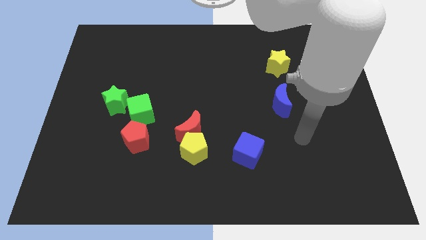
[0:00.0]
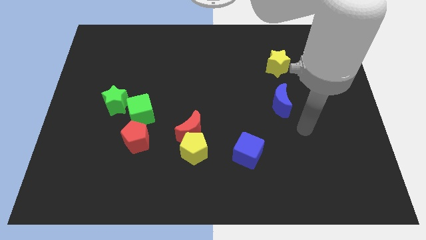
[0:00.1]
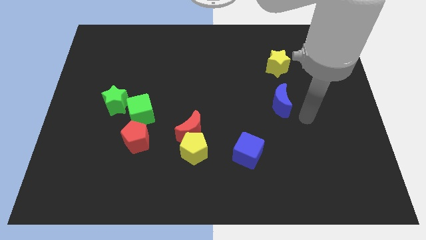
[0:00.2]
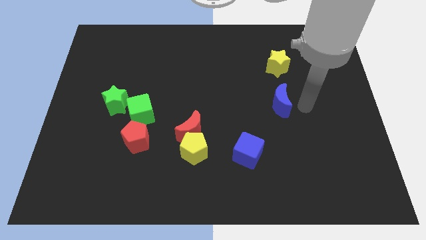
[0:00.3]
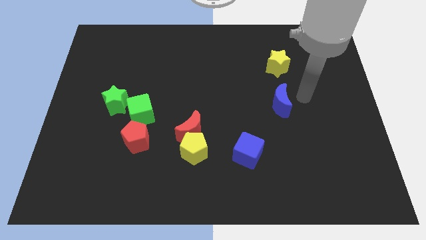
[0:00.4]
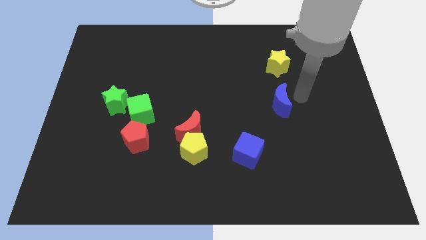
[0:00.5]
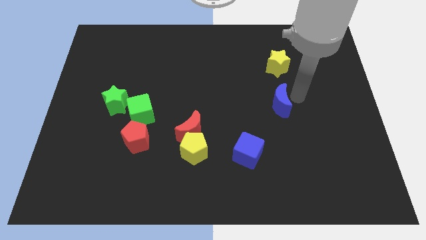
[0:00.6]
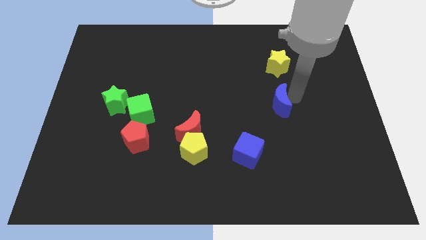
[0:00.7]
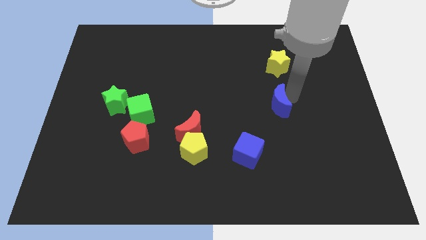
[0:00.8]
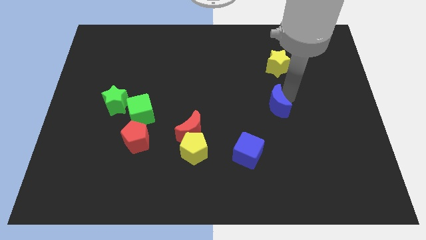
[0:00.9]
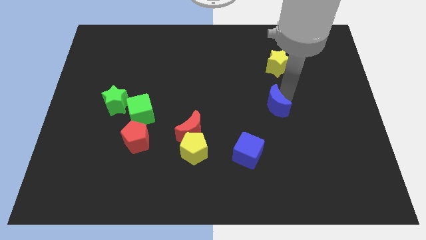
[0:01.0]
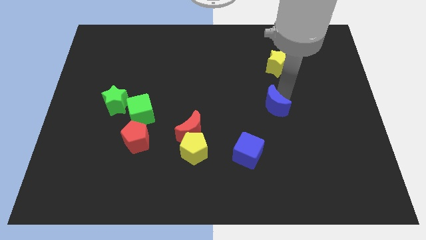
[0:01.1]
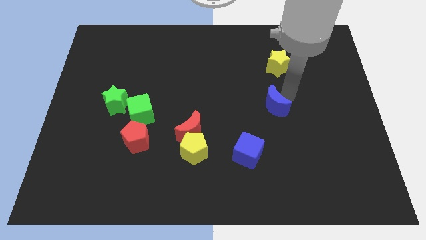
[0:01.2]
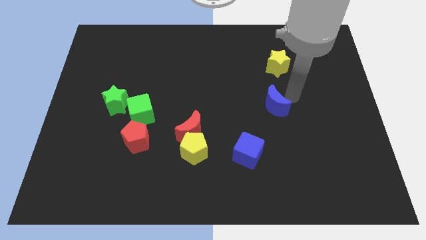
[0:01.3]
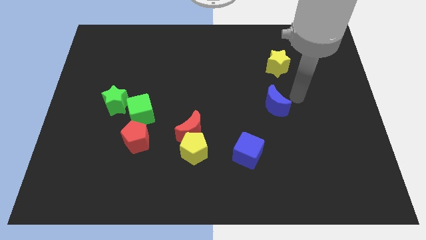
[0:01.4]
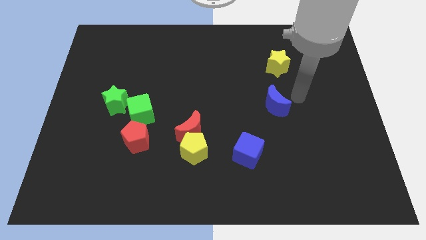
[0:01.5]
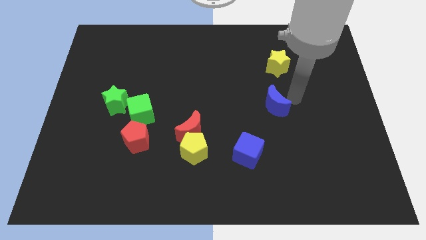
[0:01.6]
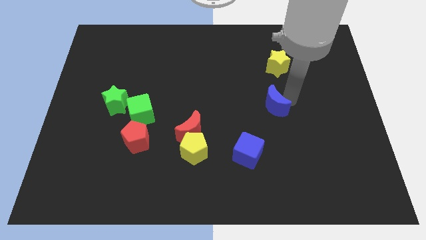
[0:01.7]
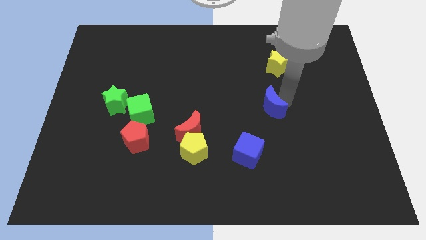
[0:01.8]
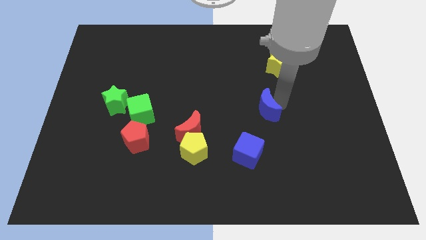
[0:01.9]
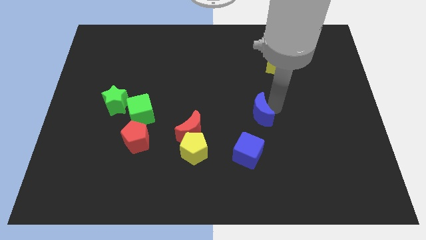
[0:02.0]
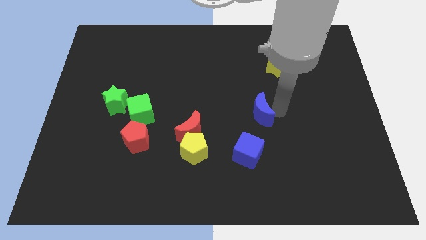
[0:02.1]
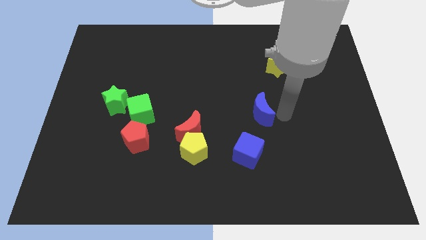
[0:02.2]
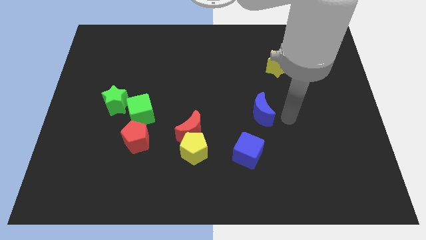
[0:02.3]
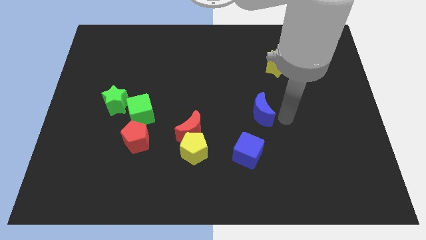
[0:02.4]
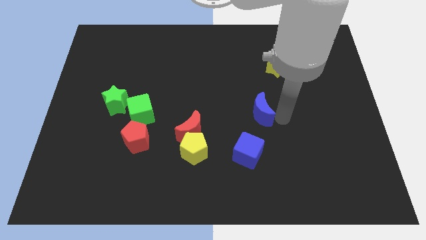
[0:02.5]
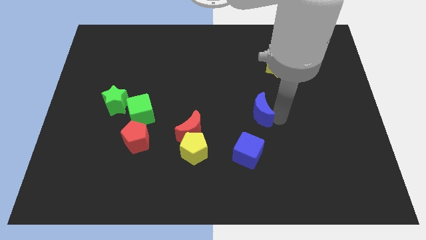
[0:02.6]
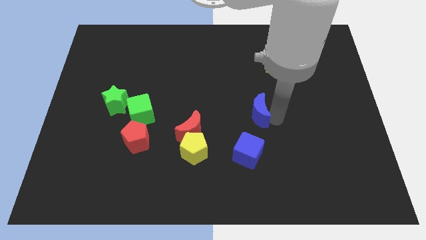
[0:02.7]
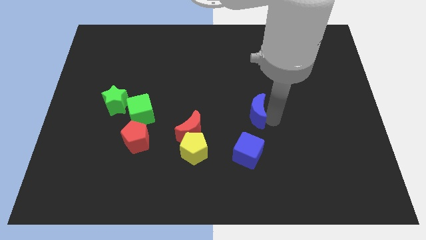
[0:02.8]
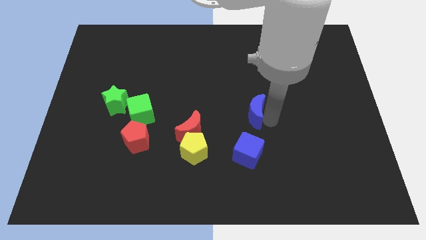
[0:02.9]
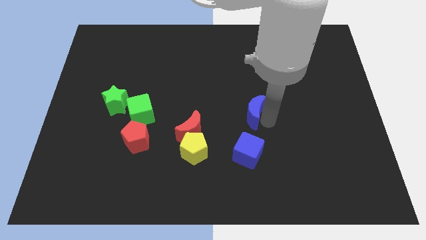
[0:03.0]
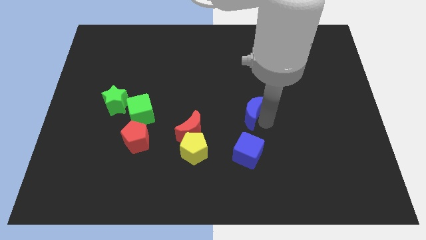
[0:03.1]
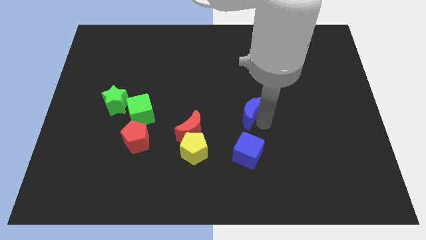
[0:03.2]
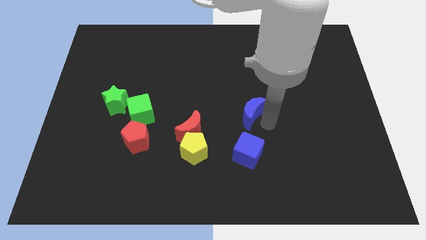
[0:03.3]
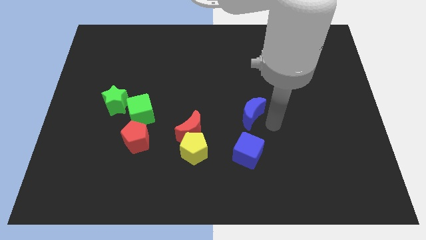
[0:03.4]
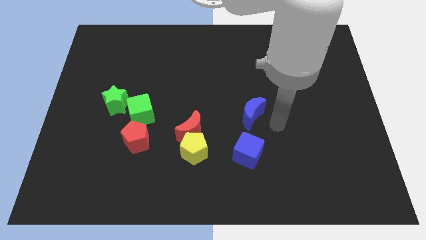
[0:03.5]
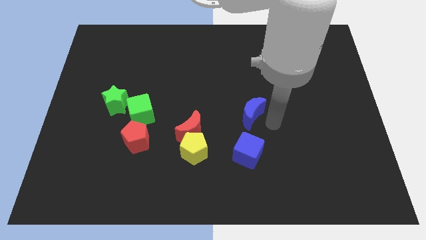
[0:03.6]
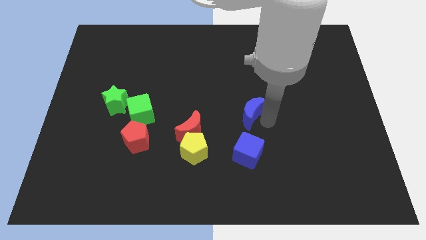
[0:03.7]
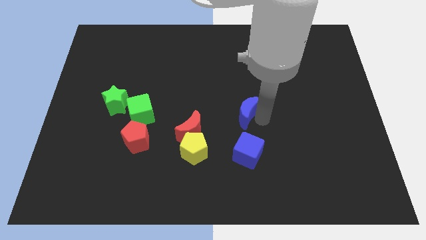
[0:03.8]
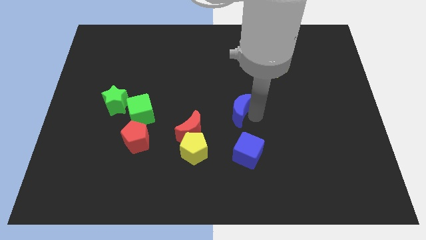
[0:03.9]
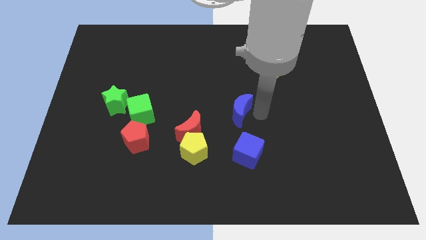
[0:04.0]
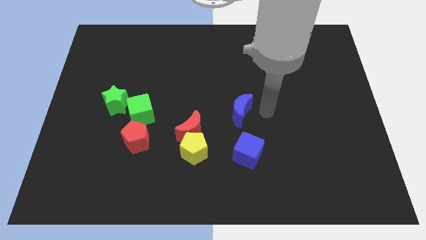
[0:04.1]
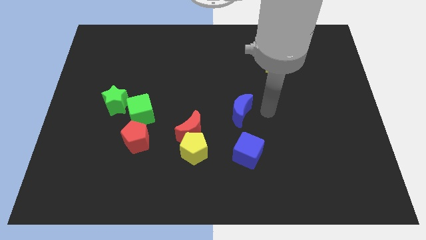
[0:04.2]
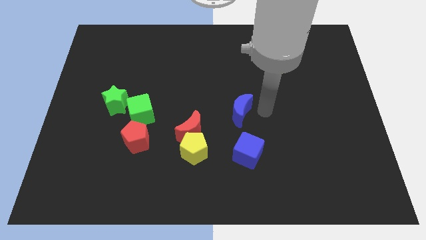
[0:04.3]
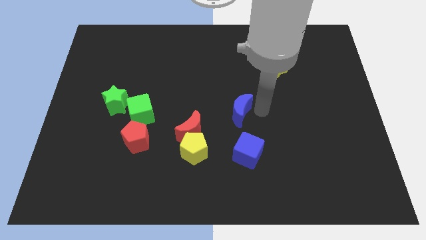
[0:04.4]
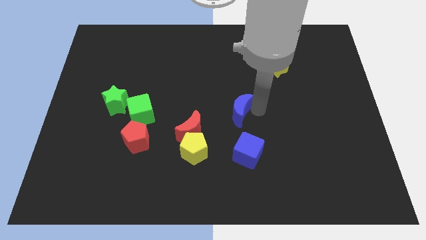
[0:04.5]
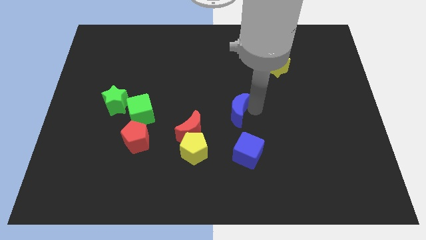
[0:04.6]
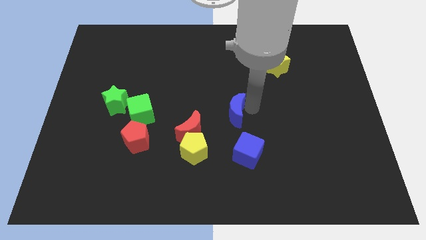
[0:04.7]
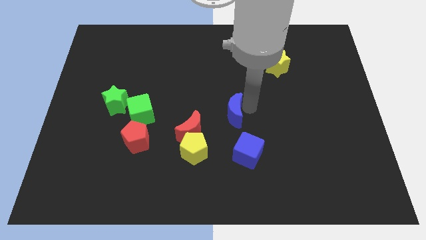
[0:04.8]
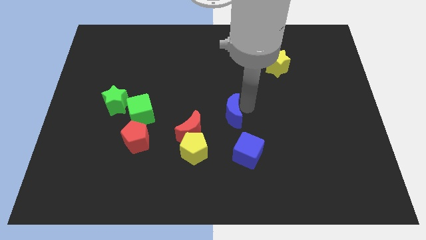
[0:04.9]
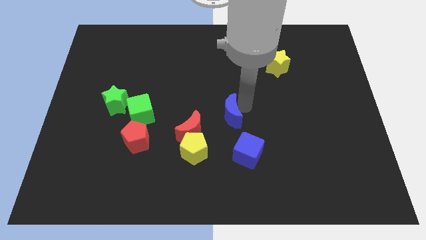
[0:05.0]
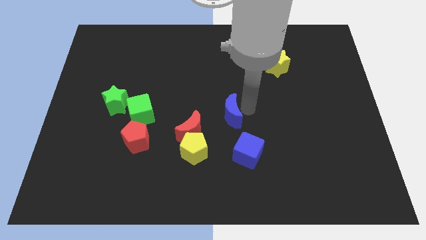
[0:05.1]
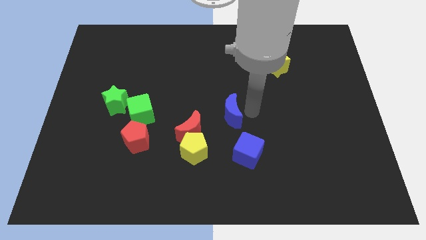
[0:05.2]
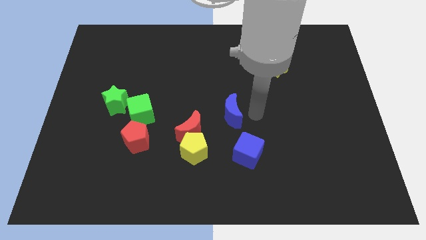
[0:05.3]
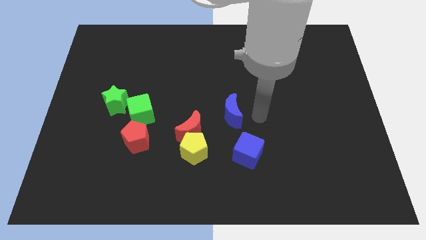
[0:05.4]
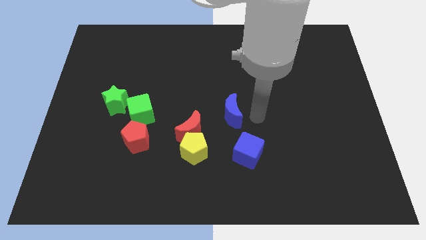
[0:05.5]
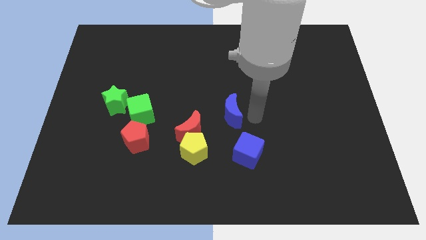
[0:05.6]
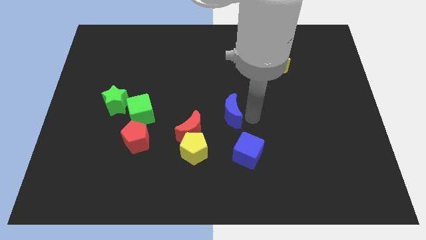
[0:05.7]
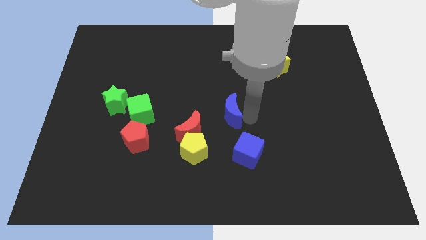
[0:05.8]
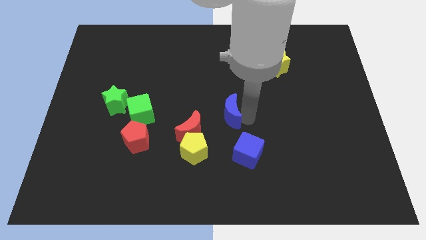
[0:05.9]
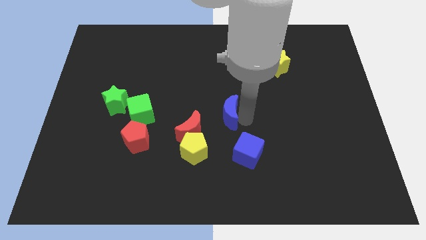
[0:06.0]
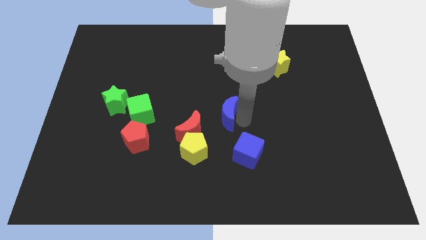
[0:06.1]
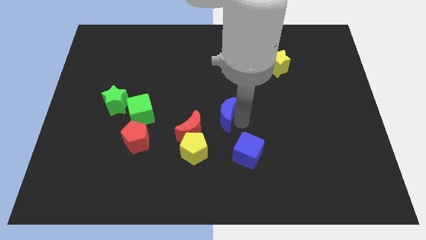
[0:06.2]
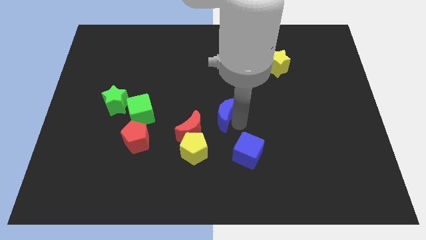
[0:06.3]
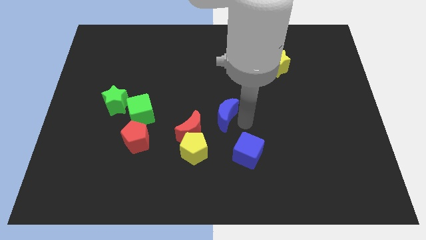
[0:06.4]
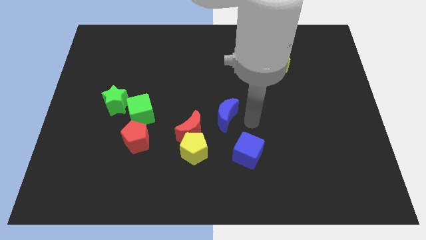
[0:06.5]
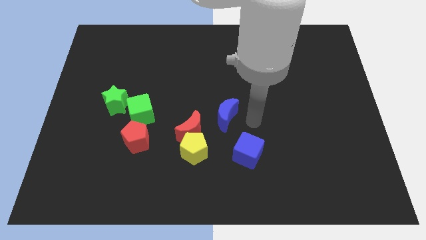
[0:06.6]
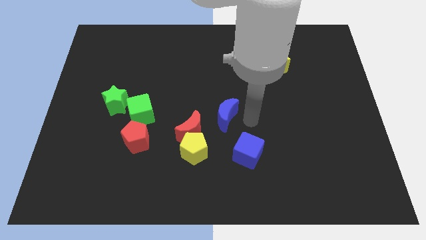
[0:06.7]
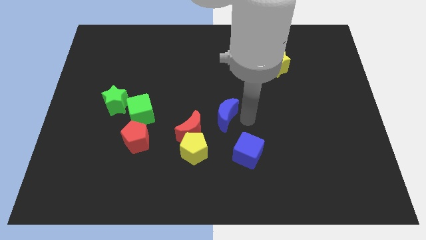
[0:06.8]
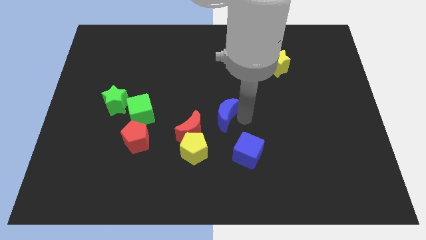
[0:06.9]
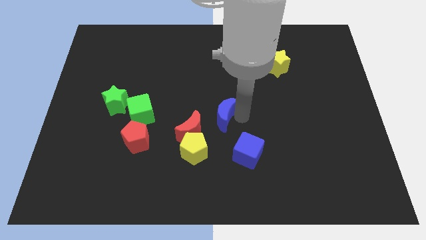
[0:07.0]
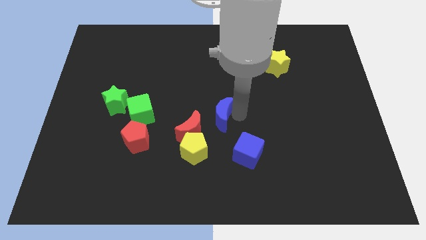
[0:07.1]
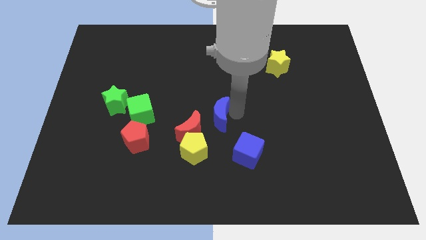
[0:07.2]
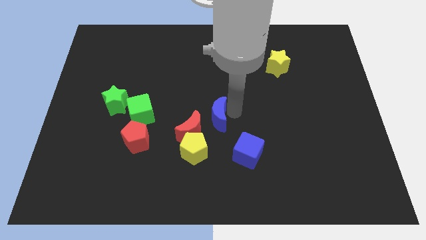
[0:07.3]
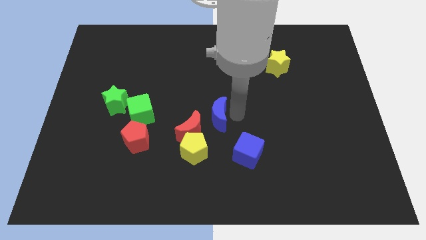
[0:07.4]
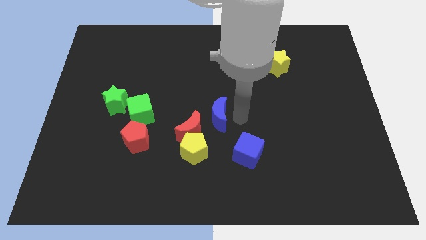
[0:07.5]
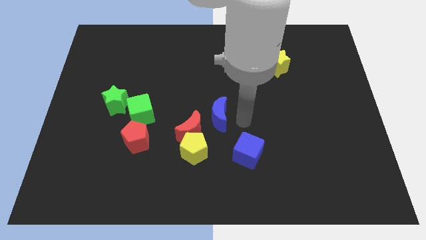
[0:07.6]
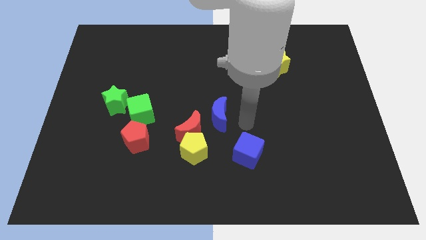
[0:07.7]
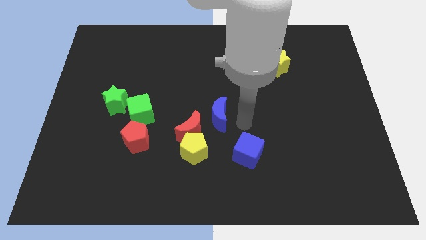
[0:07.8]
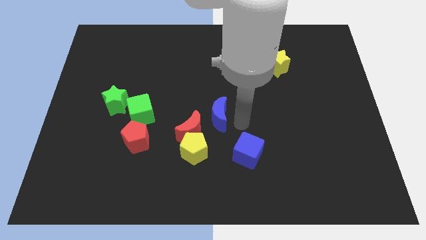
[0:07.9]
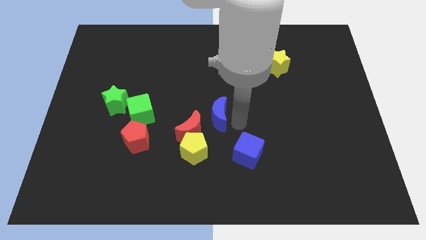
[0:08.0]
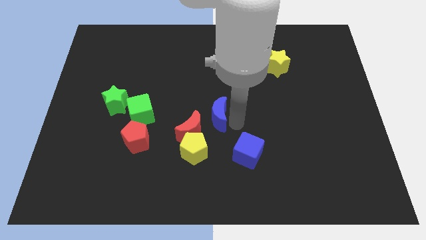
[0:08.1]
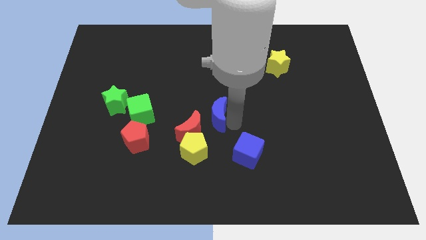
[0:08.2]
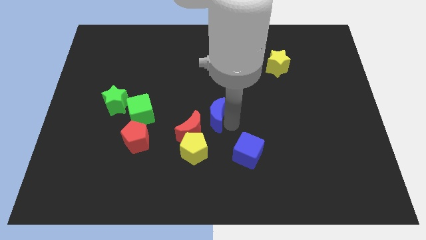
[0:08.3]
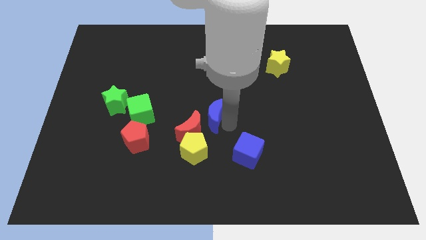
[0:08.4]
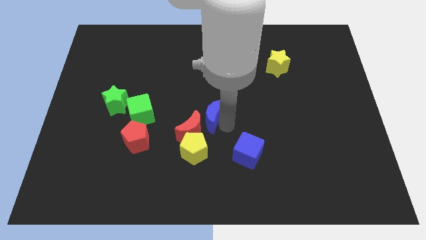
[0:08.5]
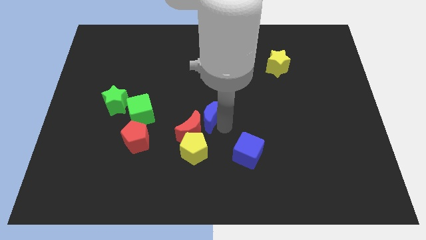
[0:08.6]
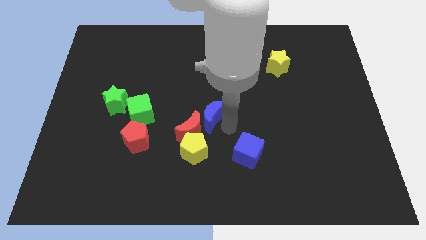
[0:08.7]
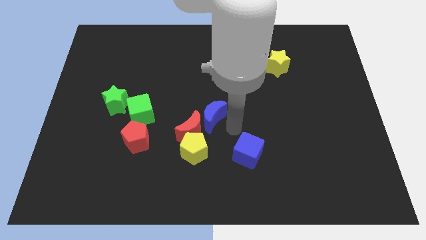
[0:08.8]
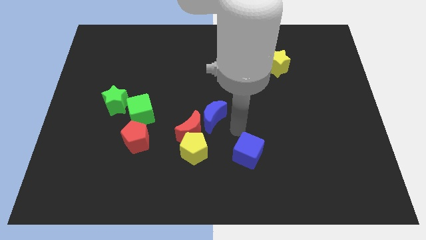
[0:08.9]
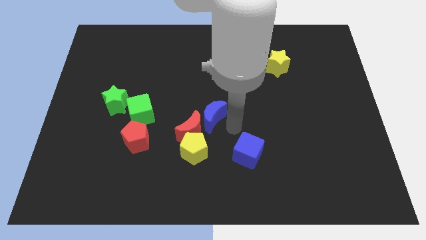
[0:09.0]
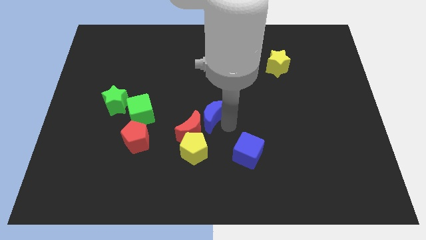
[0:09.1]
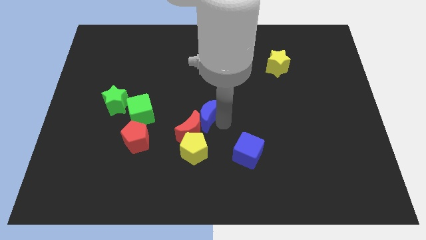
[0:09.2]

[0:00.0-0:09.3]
put the blue moon to the right of the green cube
